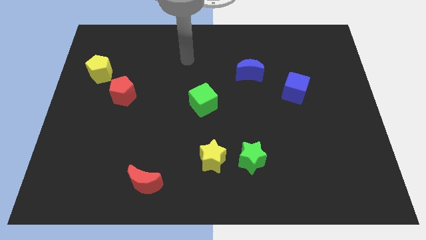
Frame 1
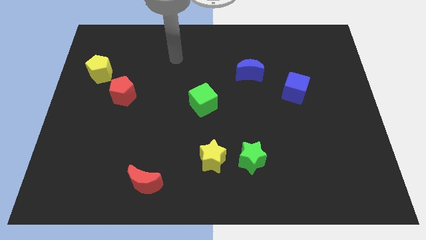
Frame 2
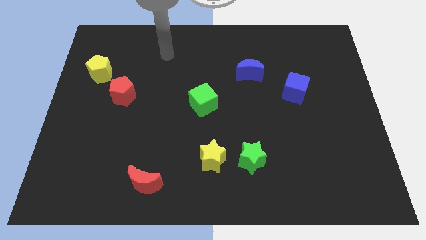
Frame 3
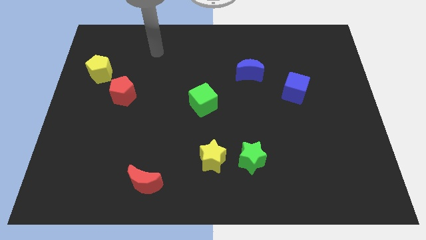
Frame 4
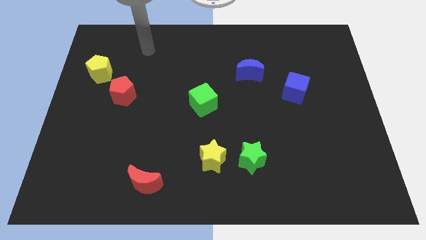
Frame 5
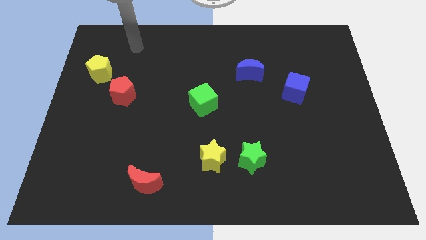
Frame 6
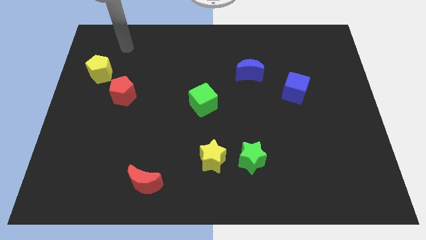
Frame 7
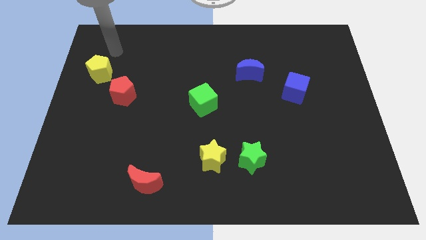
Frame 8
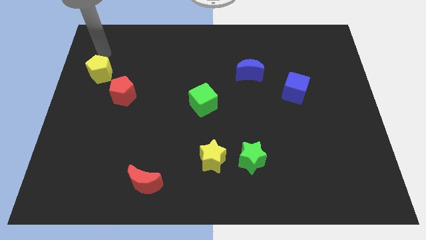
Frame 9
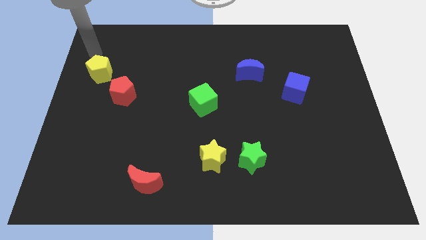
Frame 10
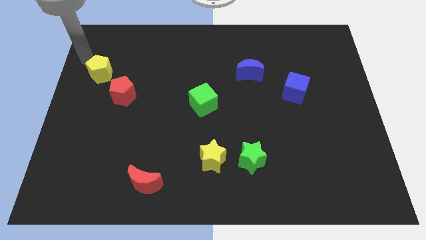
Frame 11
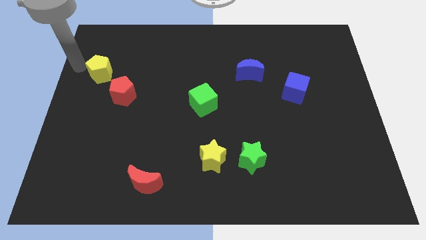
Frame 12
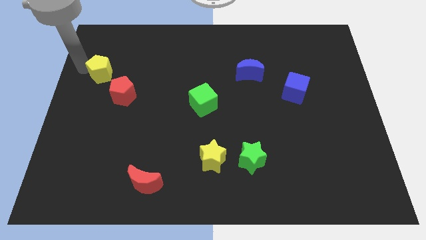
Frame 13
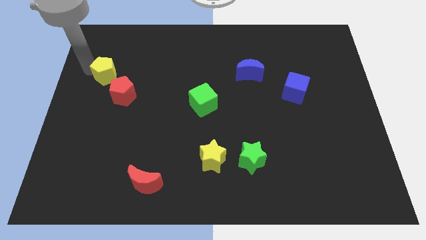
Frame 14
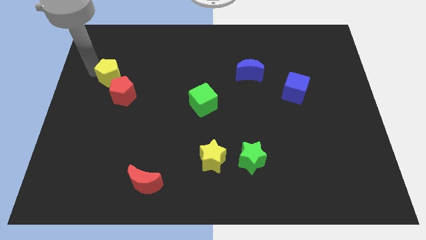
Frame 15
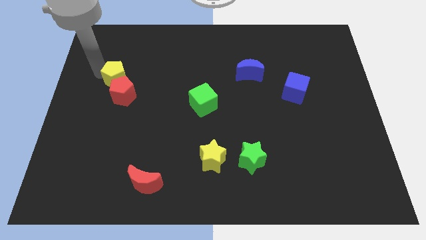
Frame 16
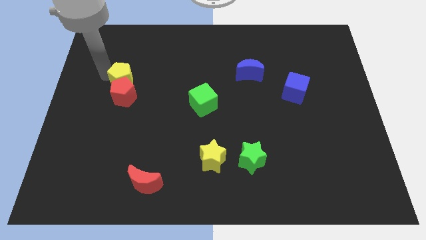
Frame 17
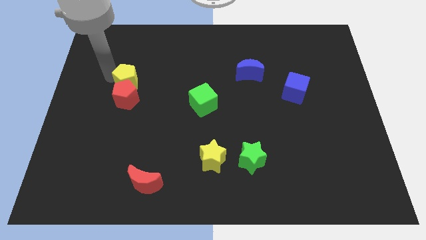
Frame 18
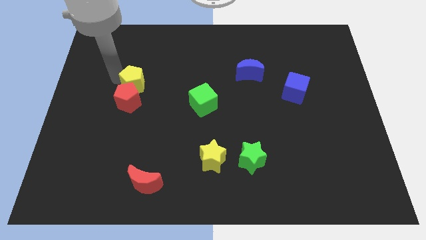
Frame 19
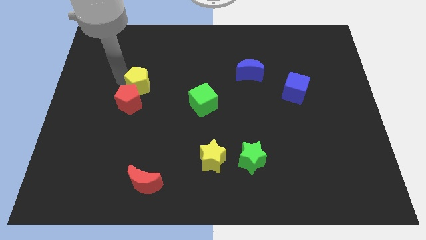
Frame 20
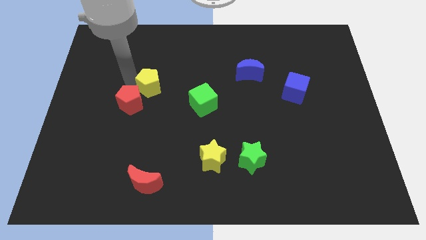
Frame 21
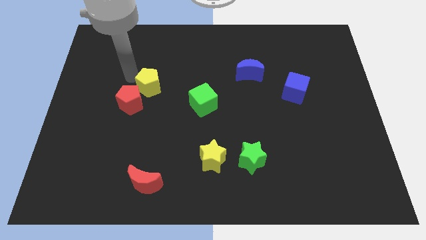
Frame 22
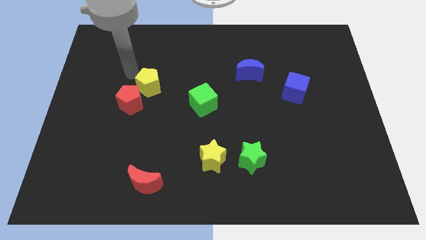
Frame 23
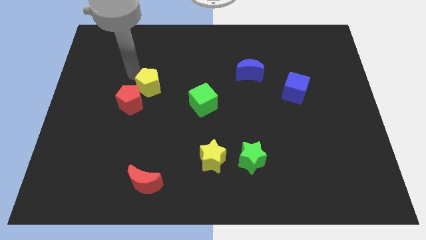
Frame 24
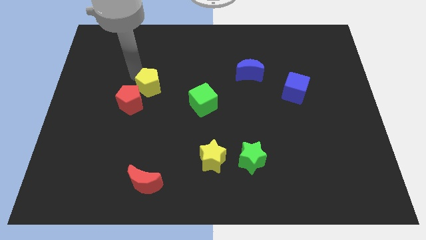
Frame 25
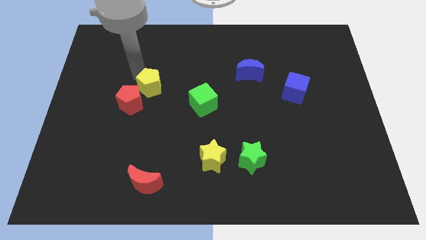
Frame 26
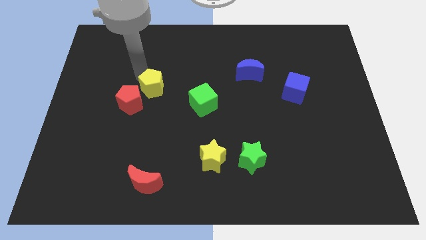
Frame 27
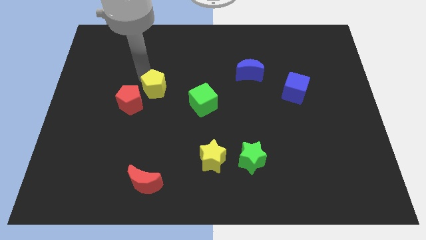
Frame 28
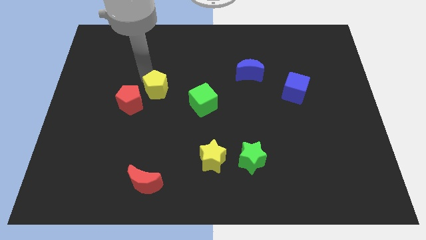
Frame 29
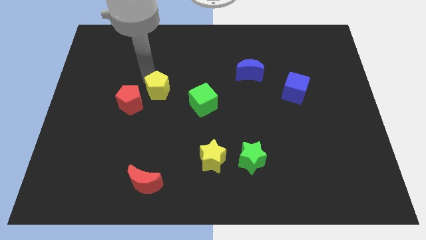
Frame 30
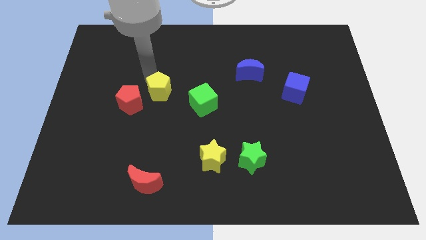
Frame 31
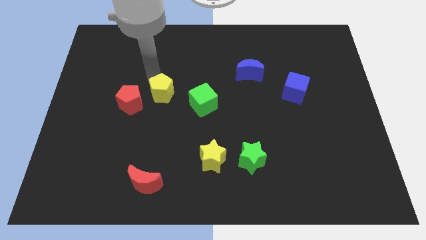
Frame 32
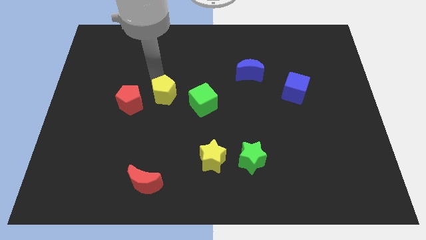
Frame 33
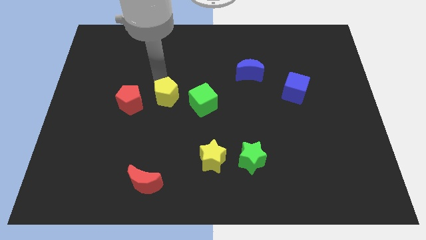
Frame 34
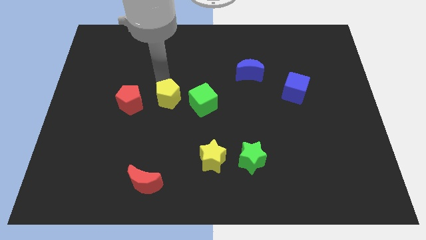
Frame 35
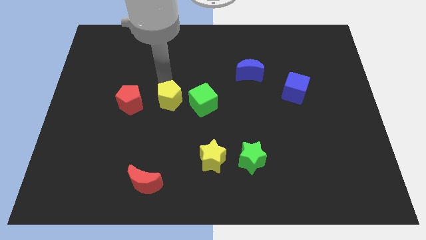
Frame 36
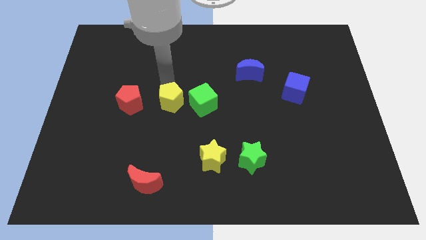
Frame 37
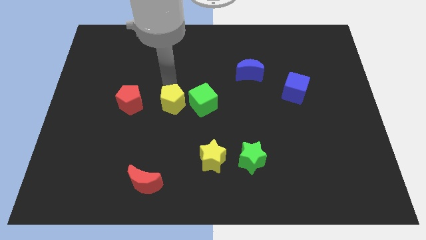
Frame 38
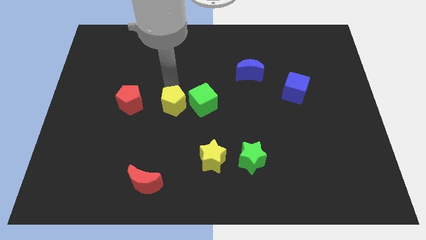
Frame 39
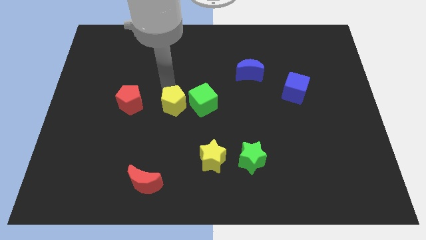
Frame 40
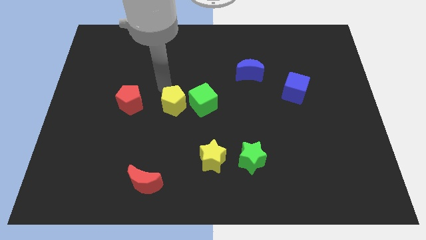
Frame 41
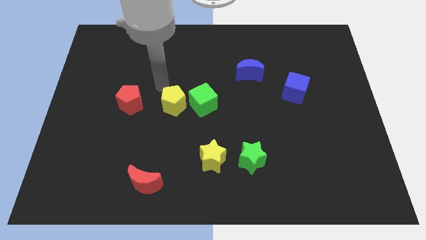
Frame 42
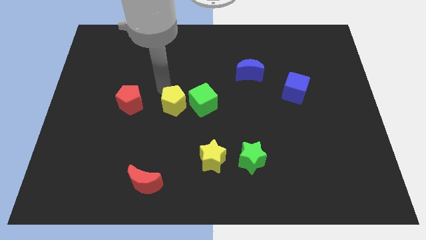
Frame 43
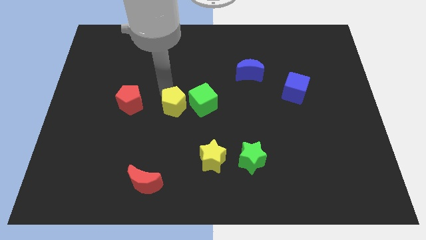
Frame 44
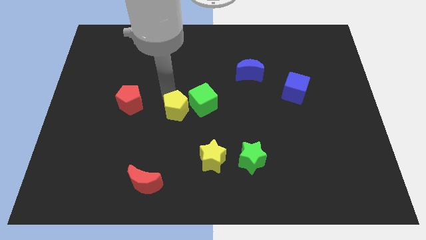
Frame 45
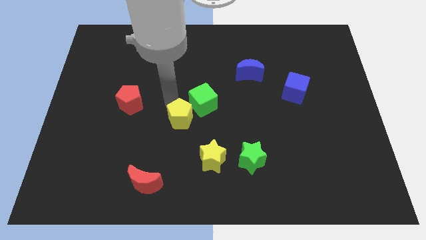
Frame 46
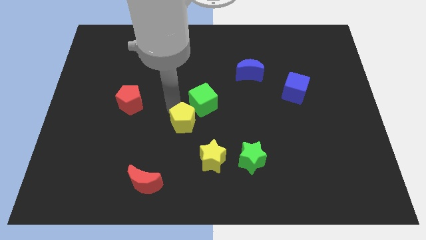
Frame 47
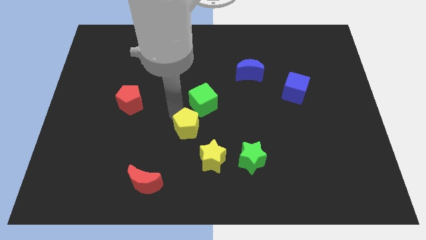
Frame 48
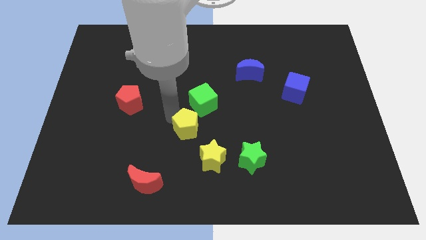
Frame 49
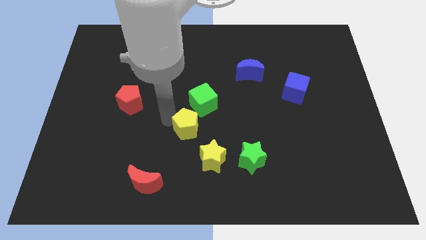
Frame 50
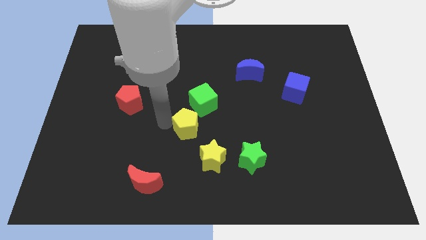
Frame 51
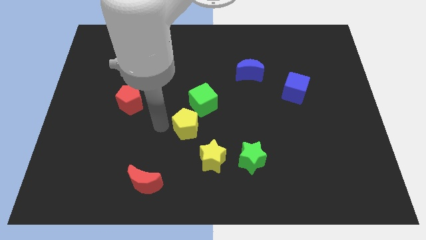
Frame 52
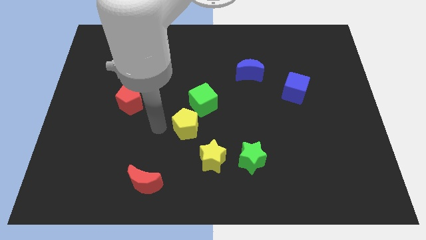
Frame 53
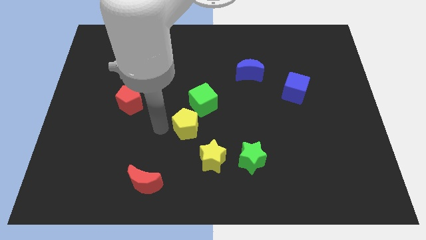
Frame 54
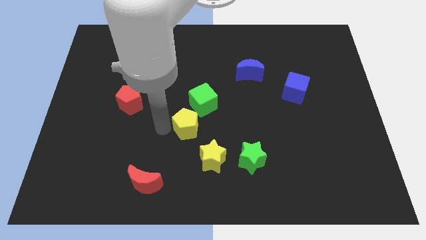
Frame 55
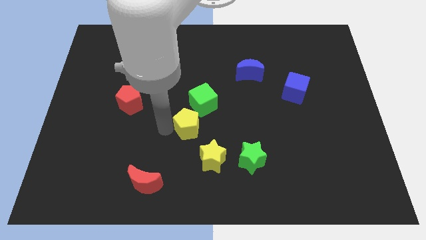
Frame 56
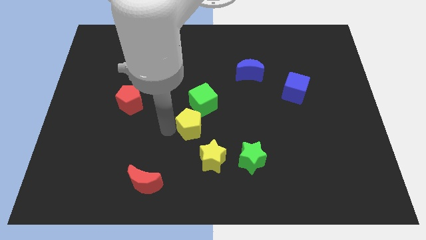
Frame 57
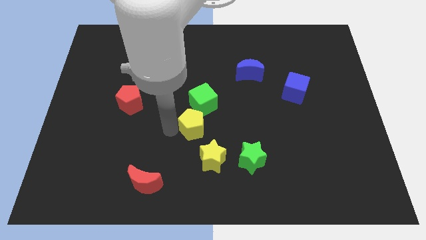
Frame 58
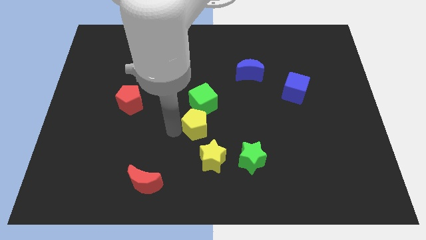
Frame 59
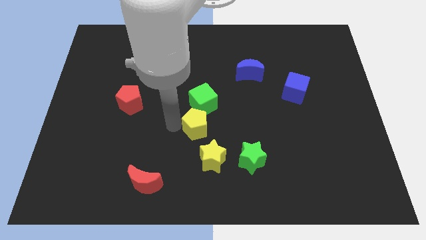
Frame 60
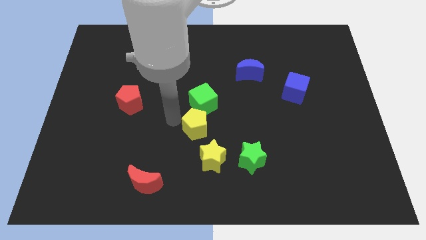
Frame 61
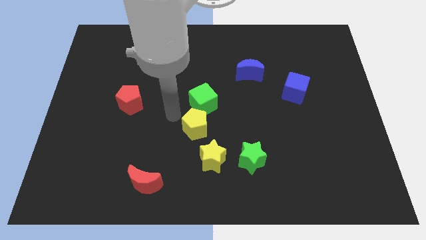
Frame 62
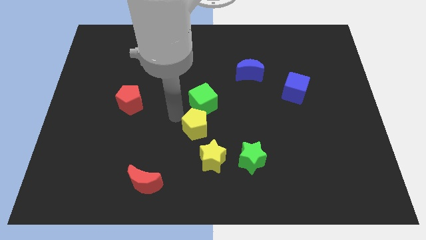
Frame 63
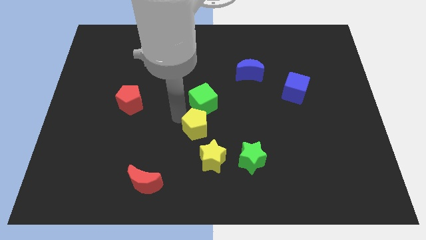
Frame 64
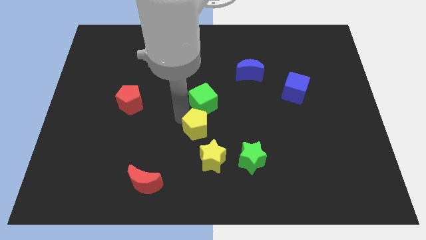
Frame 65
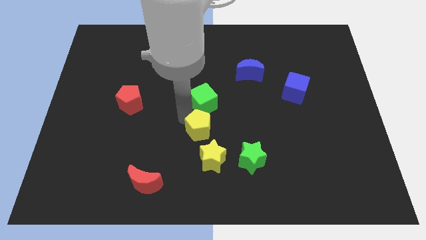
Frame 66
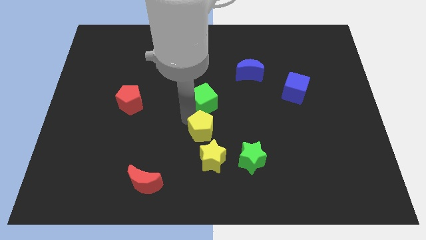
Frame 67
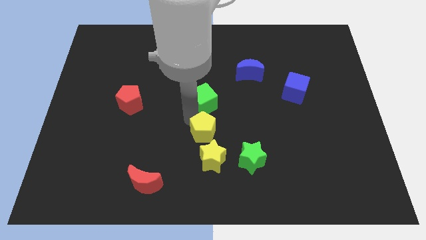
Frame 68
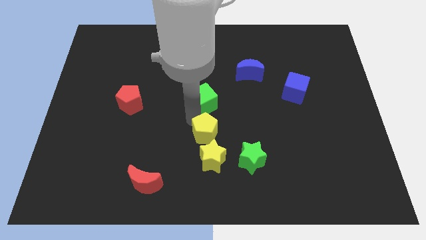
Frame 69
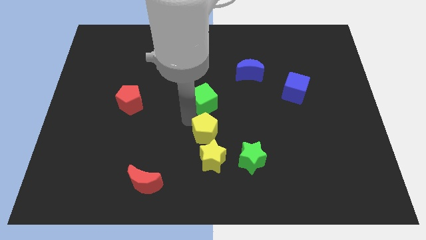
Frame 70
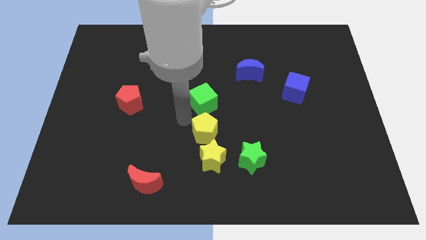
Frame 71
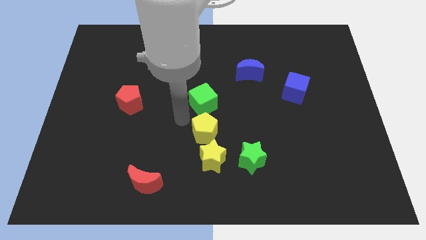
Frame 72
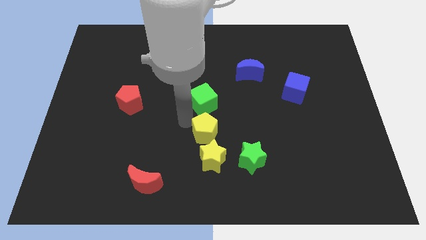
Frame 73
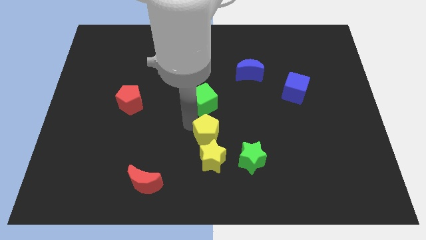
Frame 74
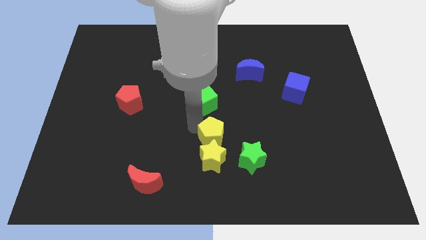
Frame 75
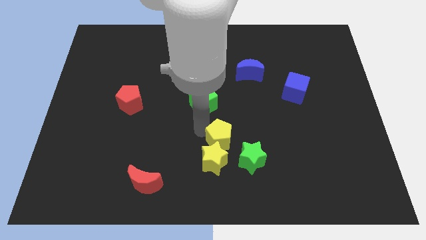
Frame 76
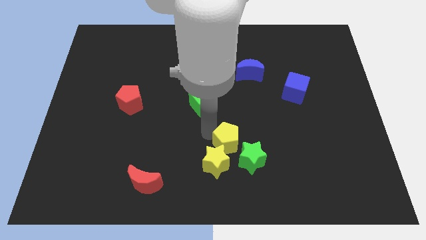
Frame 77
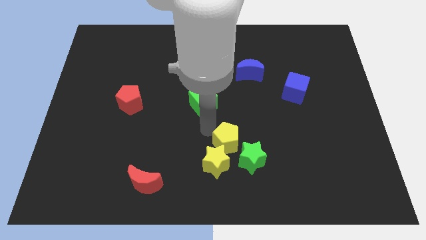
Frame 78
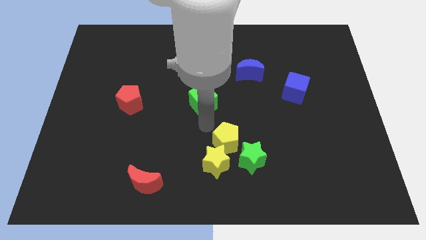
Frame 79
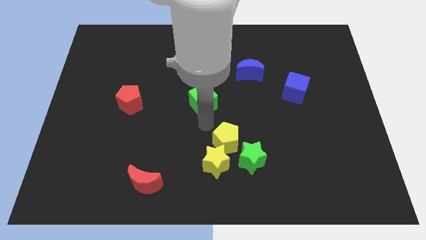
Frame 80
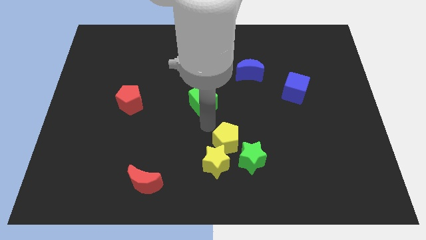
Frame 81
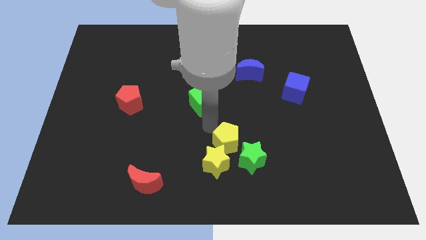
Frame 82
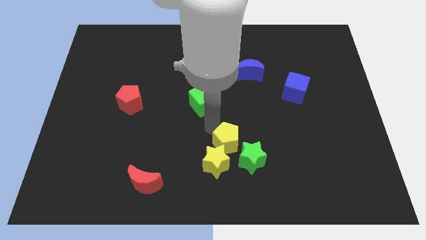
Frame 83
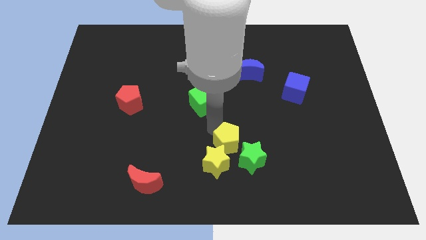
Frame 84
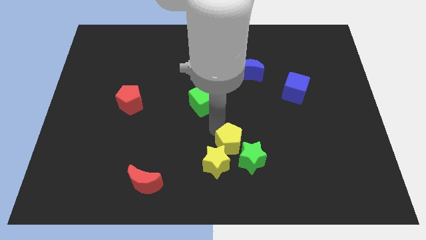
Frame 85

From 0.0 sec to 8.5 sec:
put the yellow pentagon next to the green star
